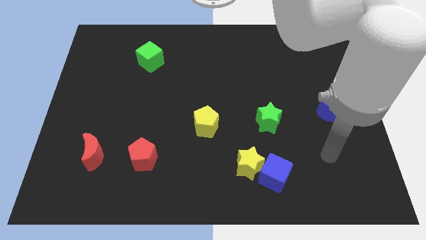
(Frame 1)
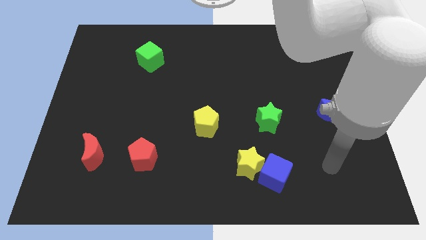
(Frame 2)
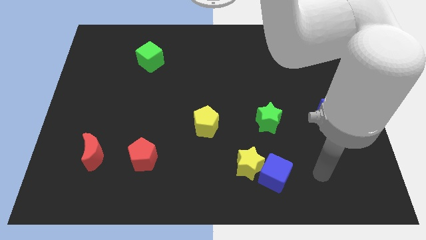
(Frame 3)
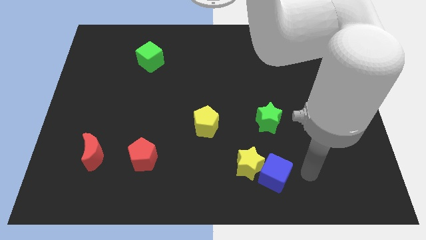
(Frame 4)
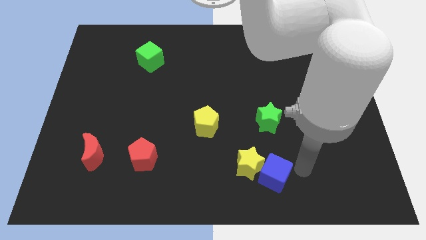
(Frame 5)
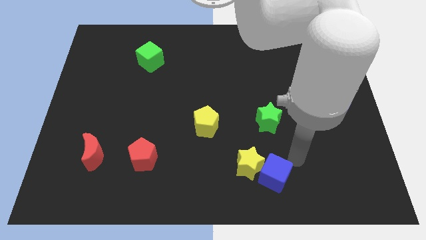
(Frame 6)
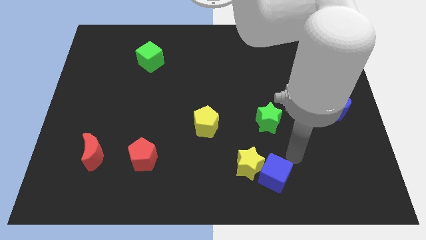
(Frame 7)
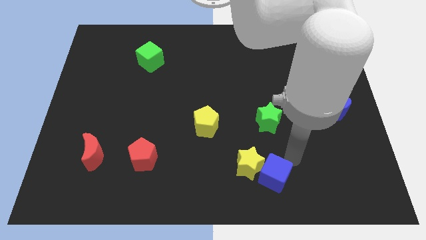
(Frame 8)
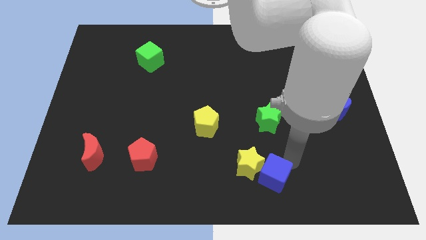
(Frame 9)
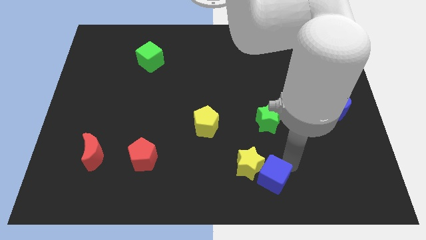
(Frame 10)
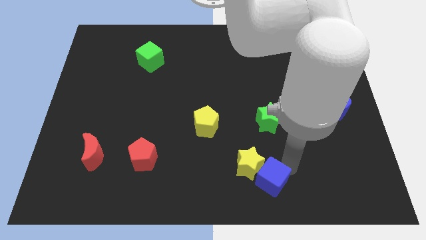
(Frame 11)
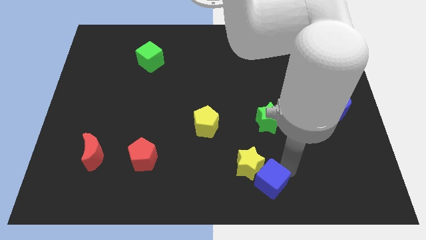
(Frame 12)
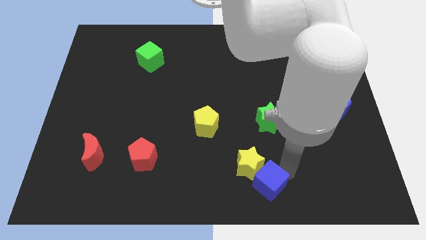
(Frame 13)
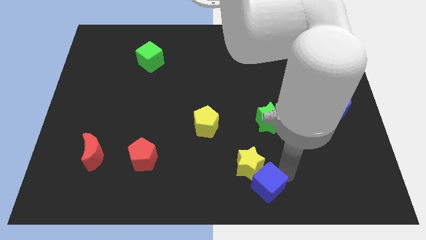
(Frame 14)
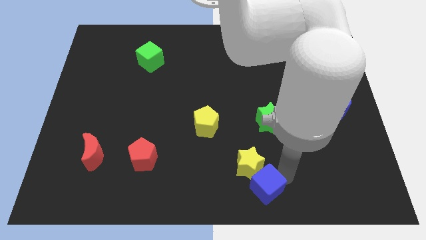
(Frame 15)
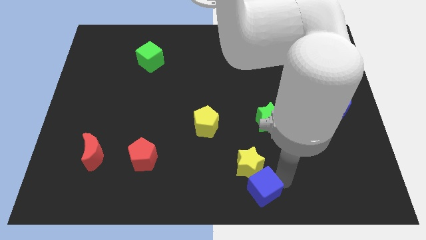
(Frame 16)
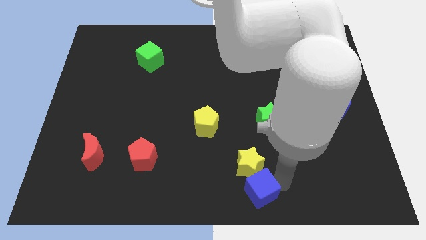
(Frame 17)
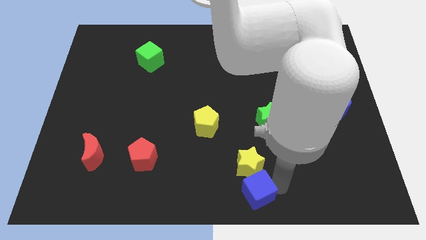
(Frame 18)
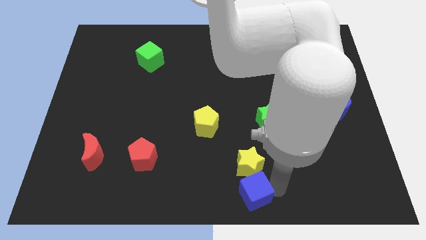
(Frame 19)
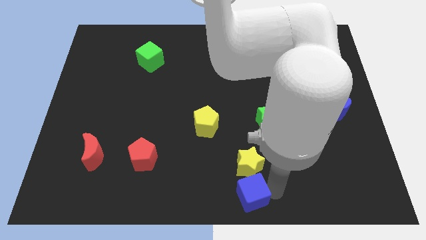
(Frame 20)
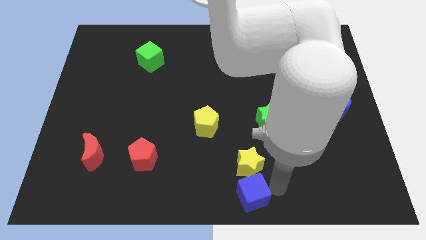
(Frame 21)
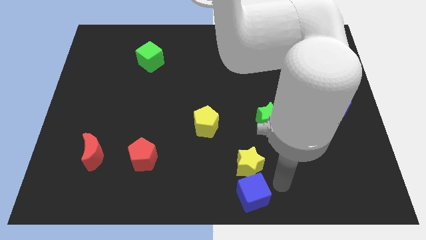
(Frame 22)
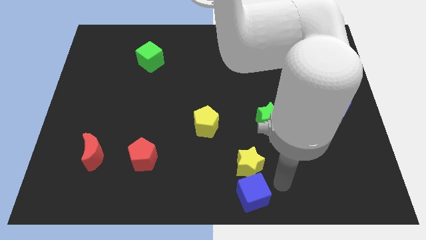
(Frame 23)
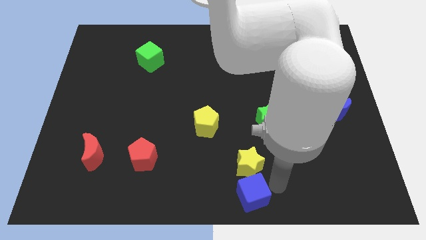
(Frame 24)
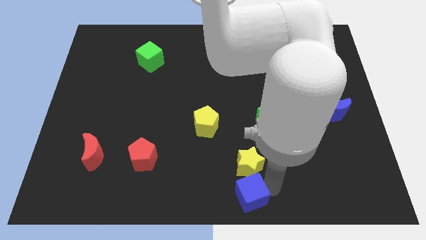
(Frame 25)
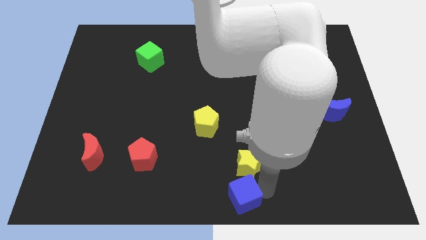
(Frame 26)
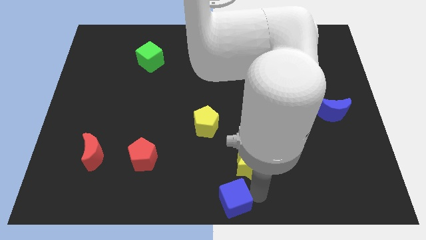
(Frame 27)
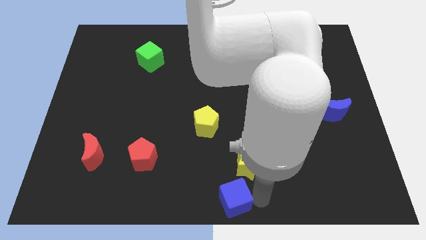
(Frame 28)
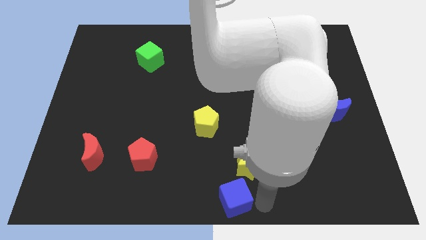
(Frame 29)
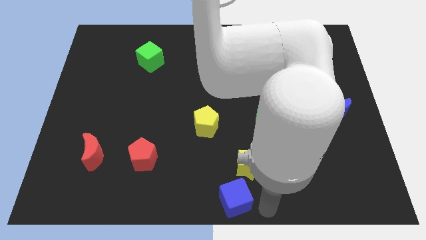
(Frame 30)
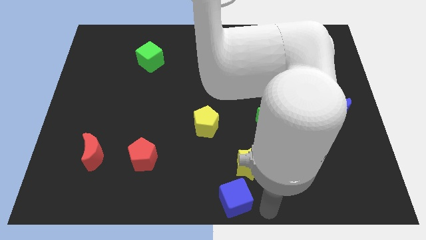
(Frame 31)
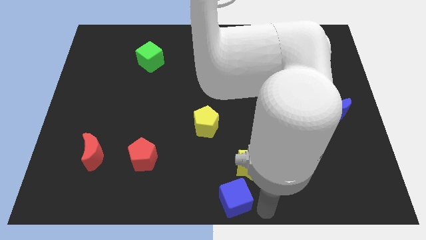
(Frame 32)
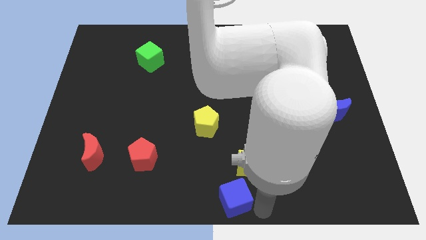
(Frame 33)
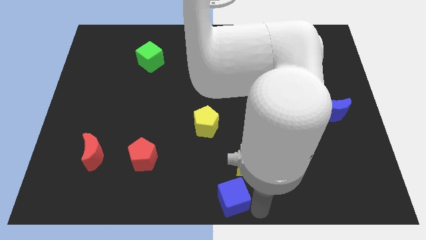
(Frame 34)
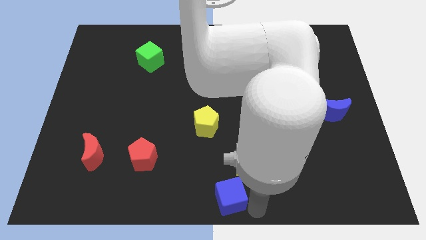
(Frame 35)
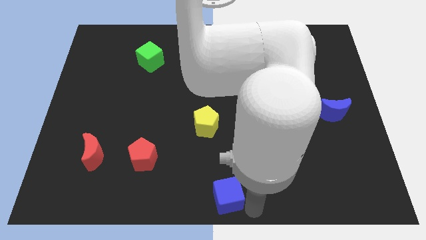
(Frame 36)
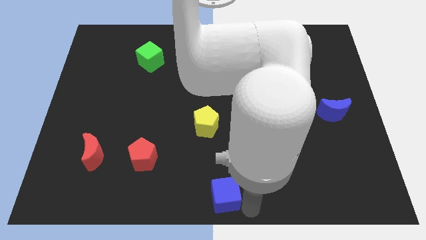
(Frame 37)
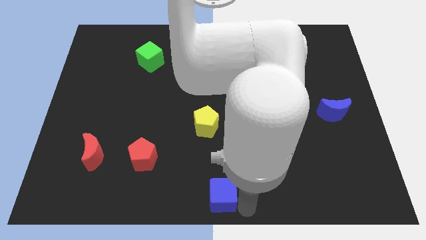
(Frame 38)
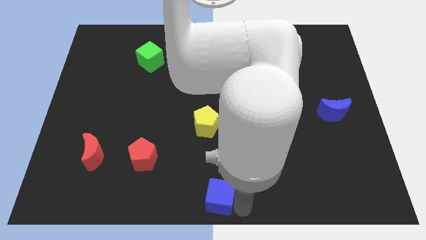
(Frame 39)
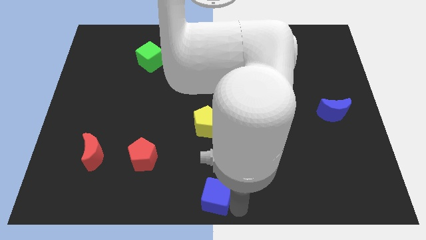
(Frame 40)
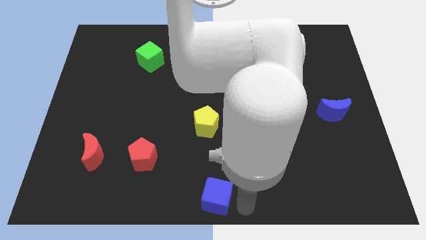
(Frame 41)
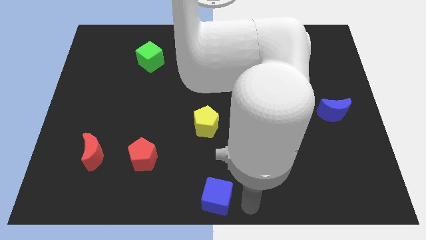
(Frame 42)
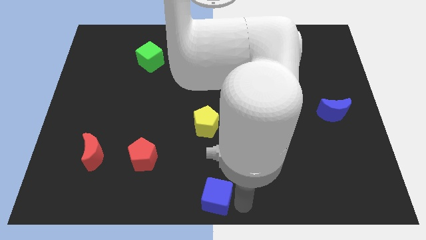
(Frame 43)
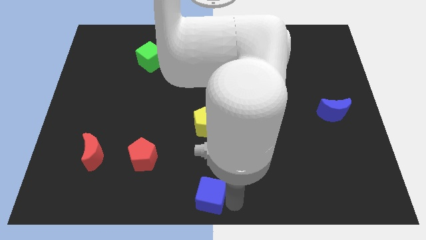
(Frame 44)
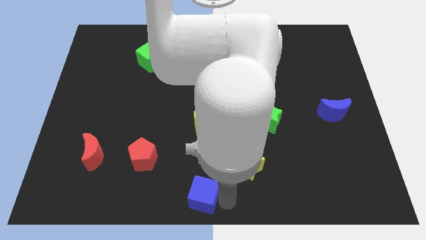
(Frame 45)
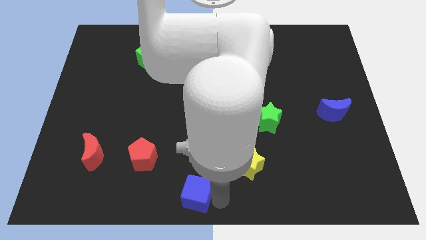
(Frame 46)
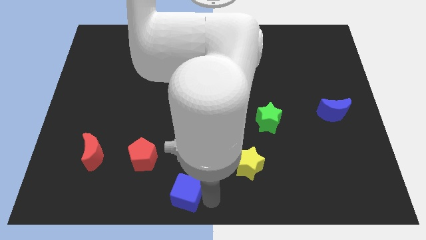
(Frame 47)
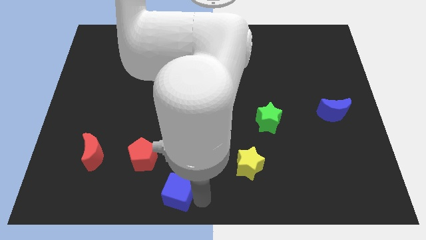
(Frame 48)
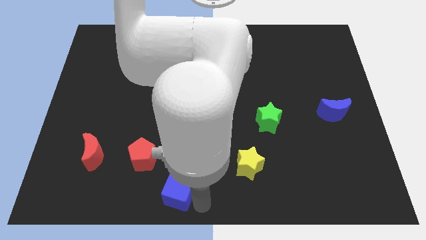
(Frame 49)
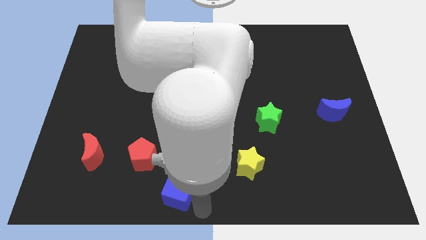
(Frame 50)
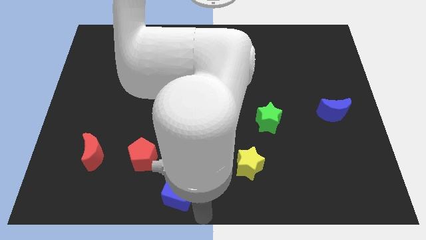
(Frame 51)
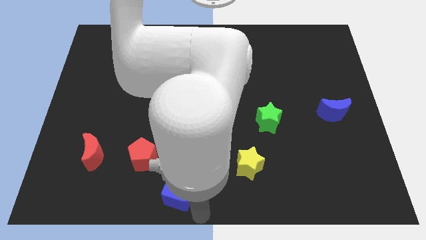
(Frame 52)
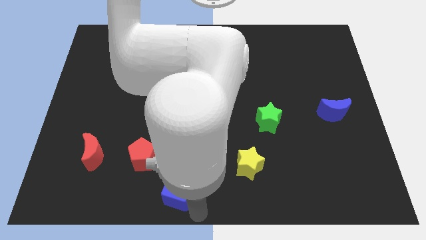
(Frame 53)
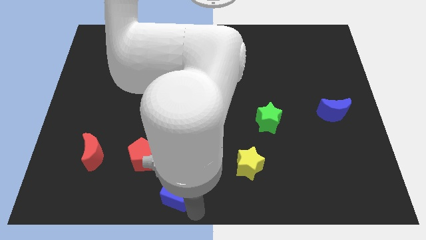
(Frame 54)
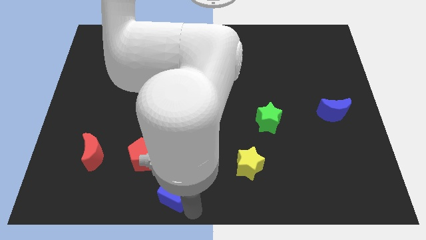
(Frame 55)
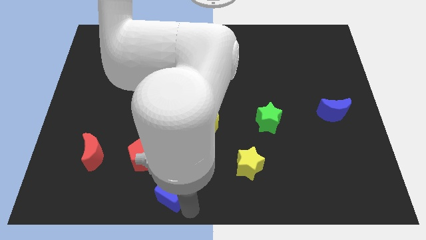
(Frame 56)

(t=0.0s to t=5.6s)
slide the blue cube to the left

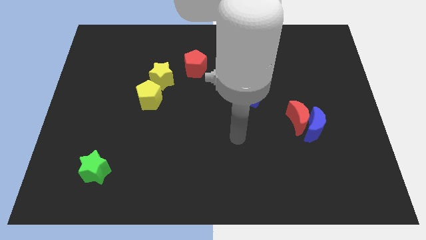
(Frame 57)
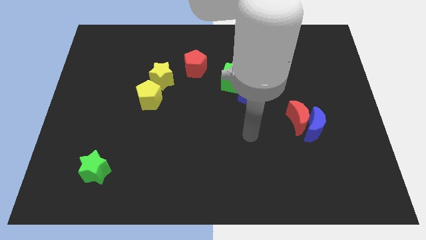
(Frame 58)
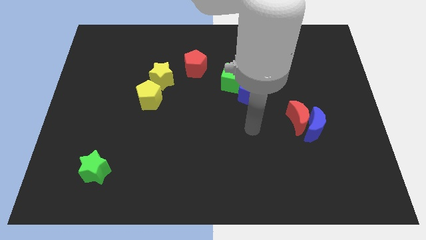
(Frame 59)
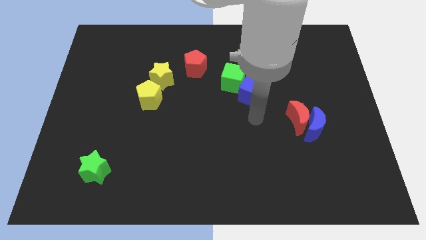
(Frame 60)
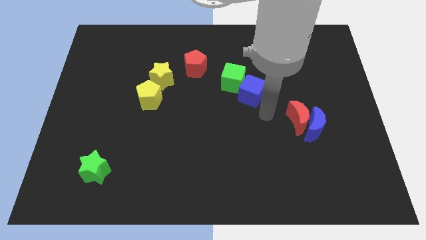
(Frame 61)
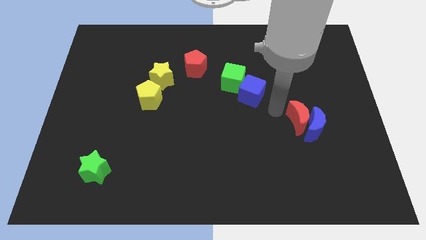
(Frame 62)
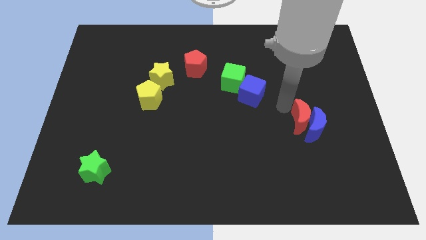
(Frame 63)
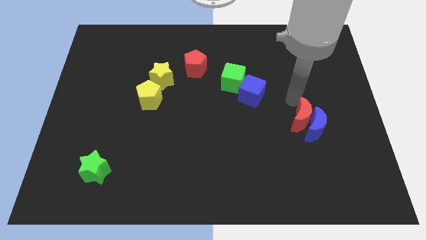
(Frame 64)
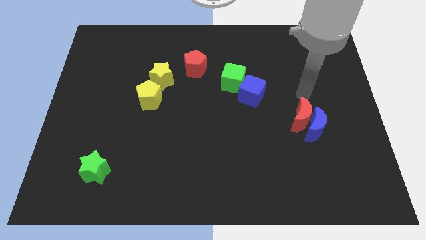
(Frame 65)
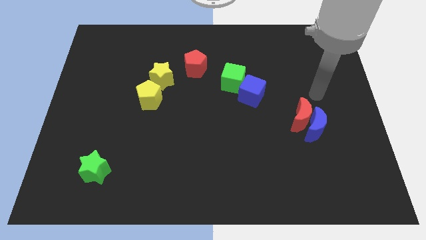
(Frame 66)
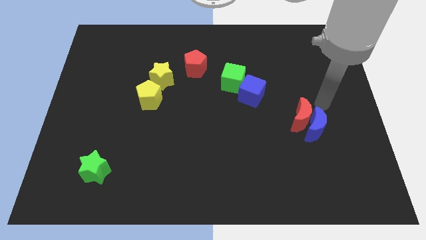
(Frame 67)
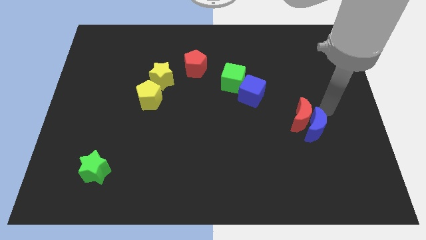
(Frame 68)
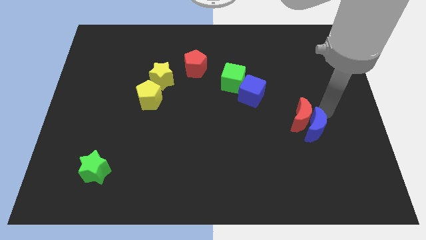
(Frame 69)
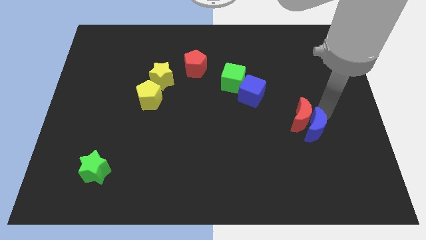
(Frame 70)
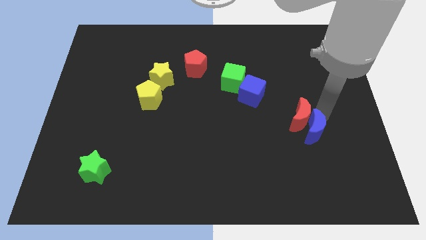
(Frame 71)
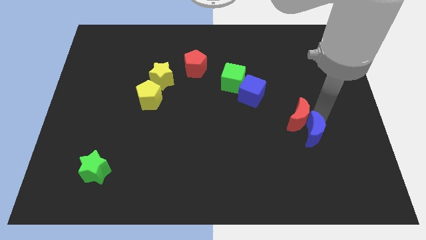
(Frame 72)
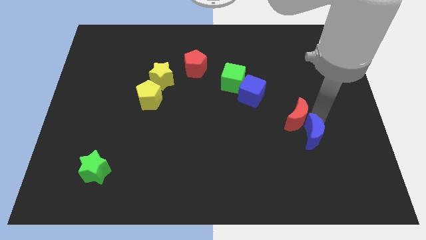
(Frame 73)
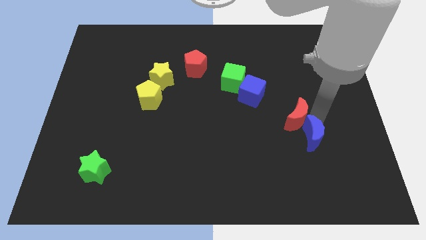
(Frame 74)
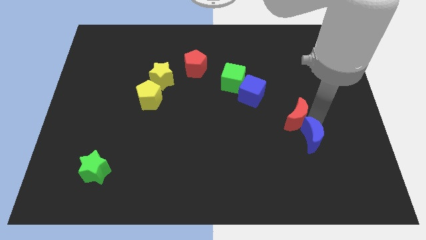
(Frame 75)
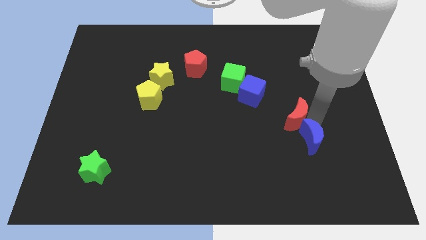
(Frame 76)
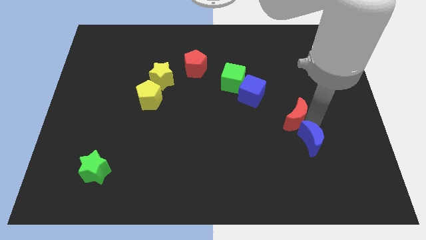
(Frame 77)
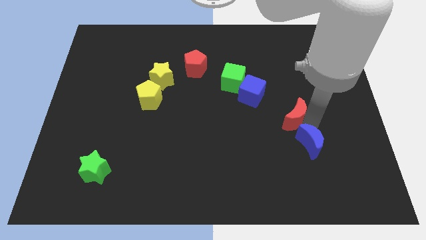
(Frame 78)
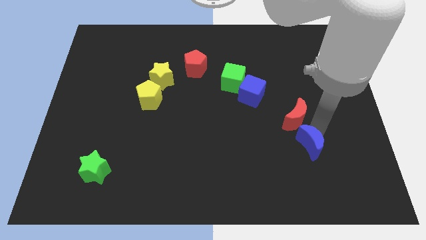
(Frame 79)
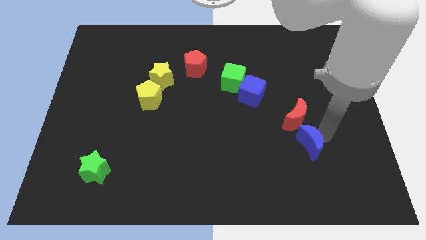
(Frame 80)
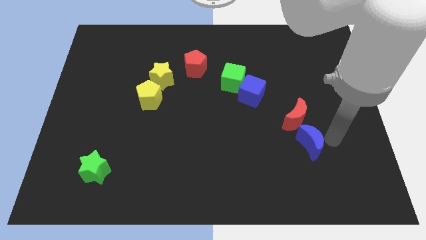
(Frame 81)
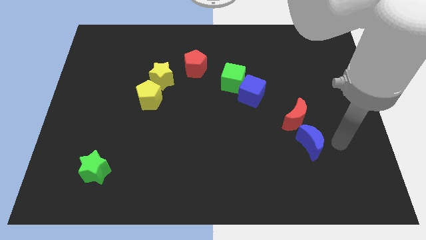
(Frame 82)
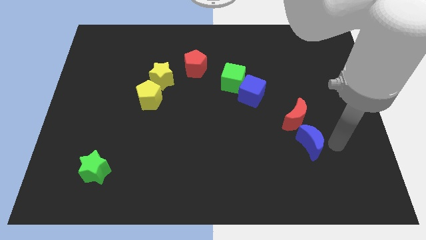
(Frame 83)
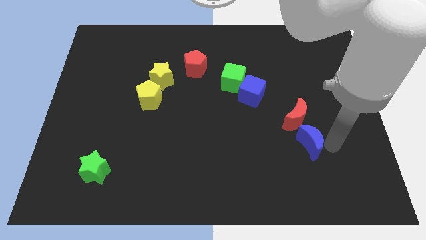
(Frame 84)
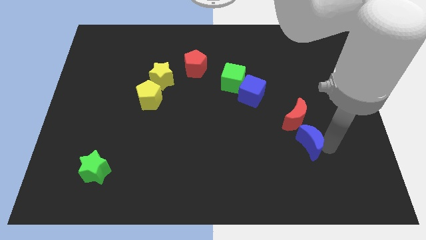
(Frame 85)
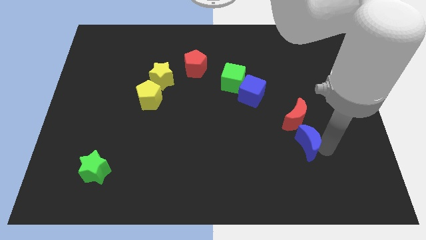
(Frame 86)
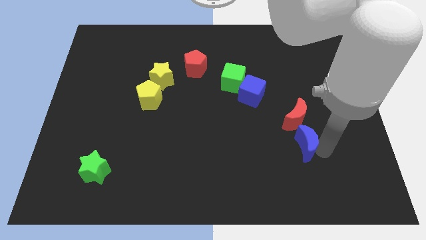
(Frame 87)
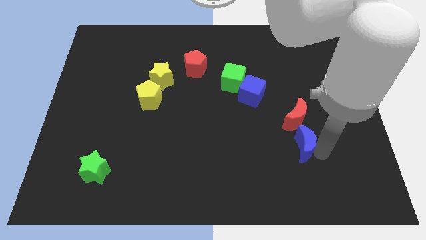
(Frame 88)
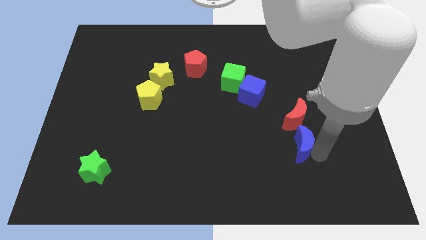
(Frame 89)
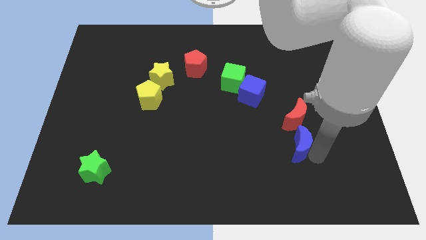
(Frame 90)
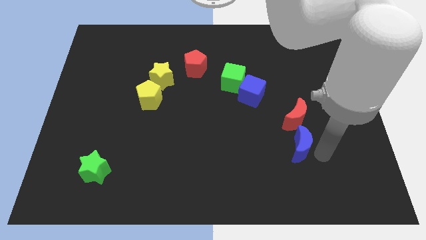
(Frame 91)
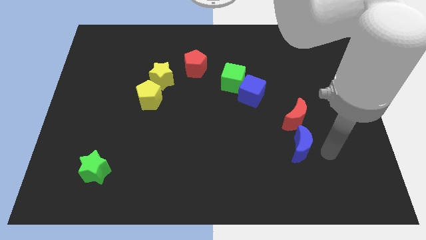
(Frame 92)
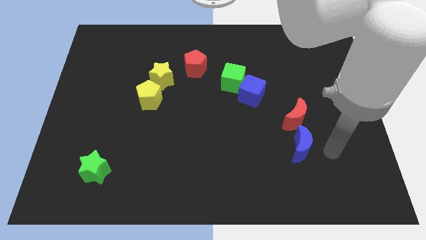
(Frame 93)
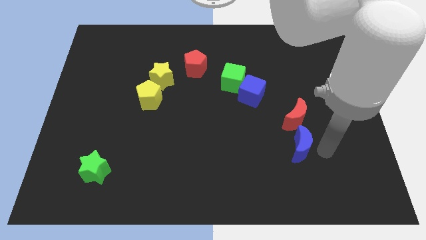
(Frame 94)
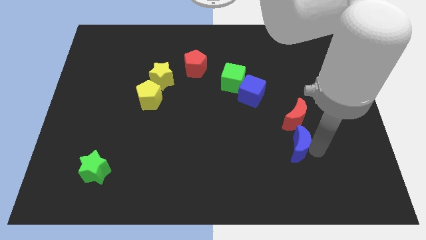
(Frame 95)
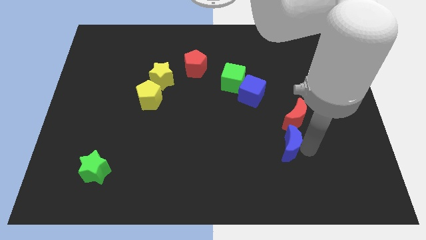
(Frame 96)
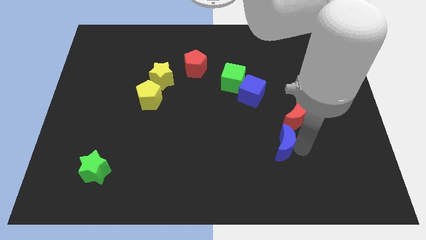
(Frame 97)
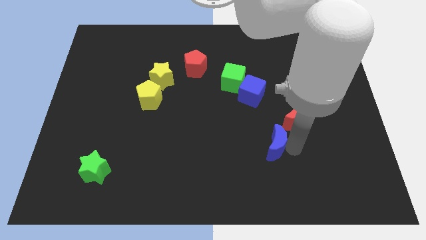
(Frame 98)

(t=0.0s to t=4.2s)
move the blue moon to the left slightly
